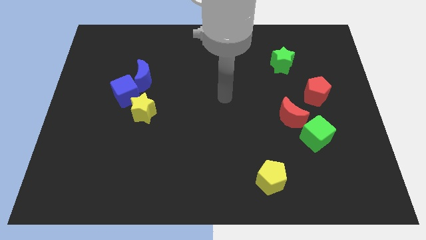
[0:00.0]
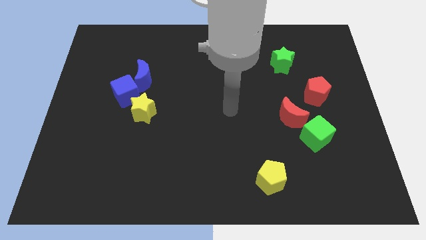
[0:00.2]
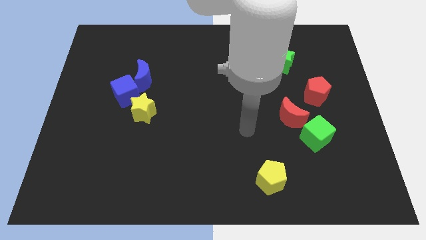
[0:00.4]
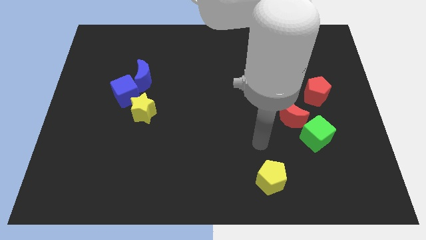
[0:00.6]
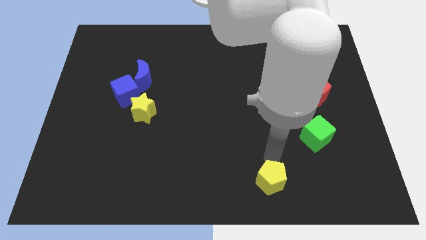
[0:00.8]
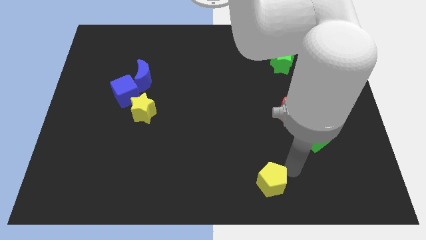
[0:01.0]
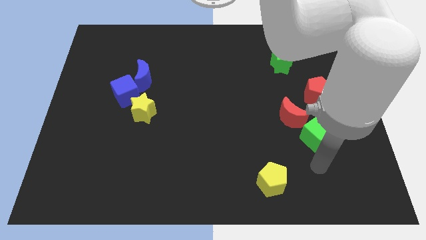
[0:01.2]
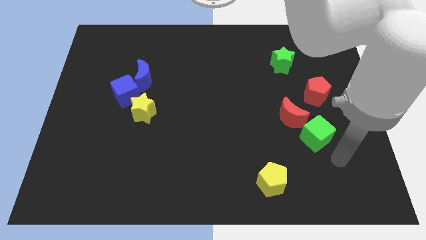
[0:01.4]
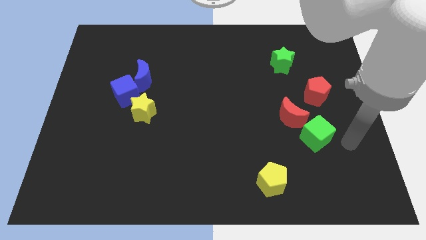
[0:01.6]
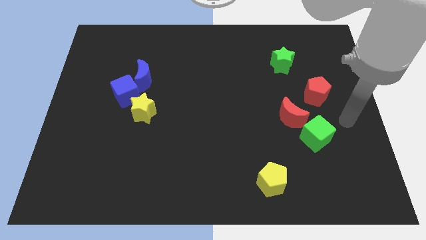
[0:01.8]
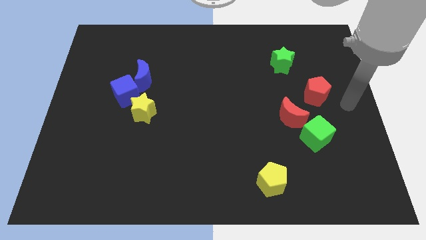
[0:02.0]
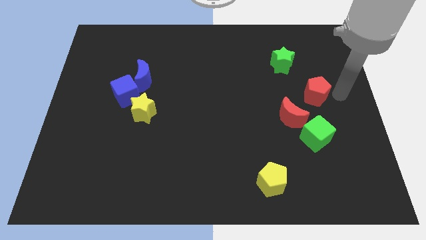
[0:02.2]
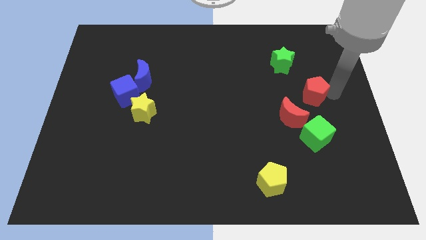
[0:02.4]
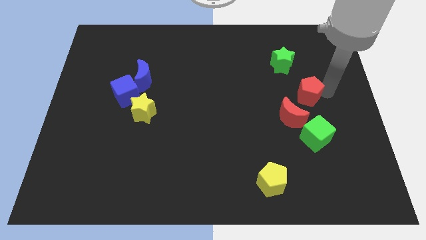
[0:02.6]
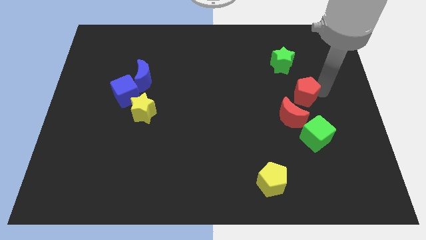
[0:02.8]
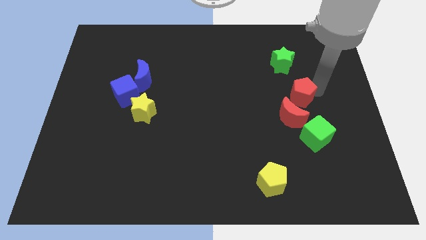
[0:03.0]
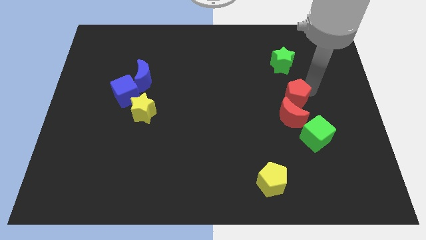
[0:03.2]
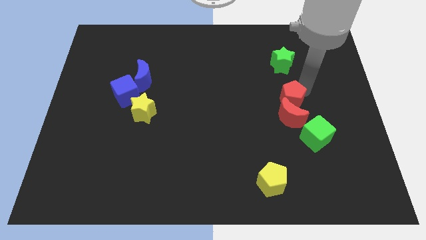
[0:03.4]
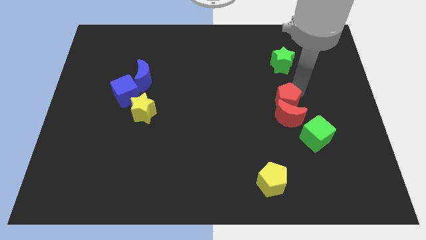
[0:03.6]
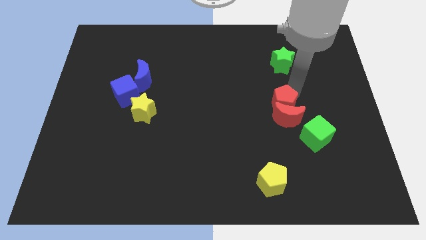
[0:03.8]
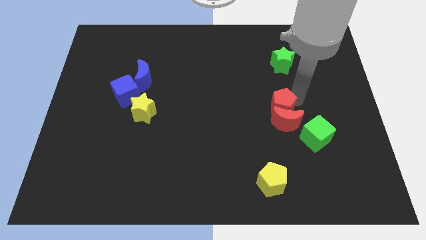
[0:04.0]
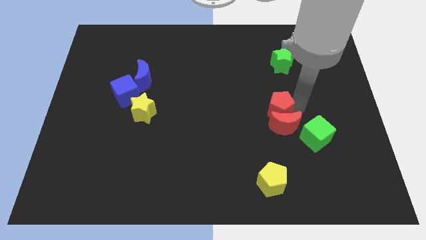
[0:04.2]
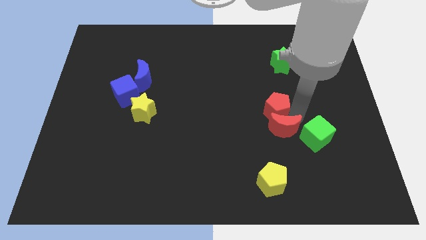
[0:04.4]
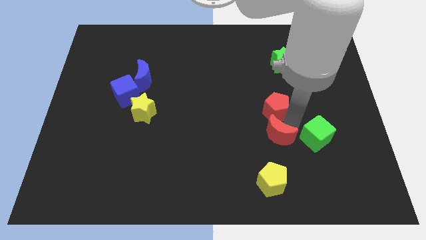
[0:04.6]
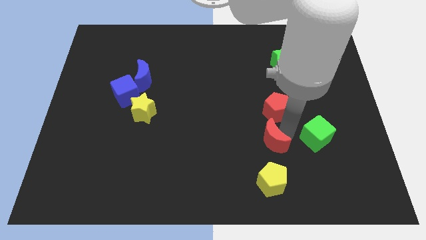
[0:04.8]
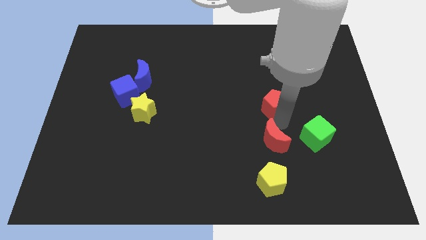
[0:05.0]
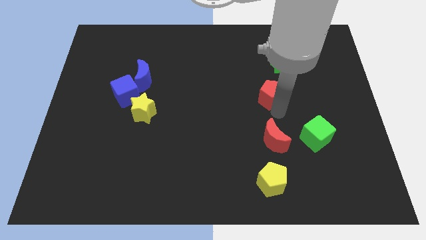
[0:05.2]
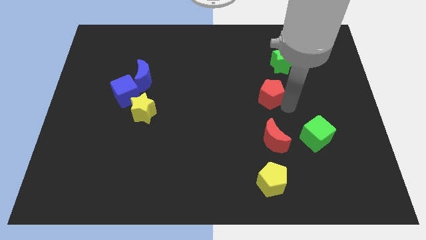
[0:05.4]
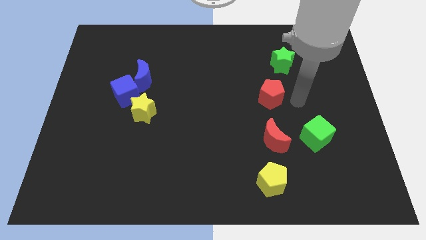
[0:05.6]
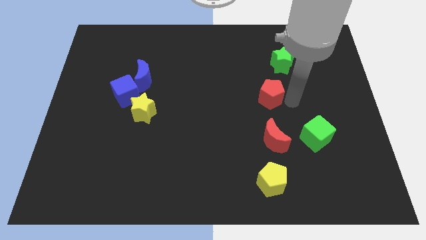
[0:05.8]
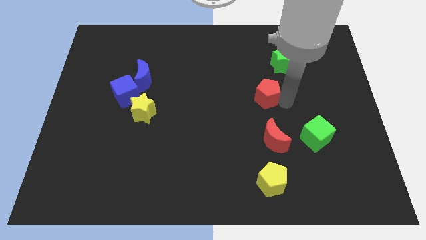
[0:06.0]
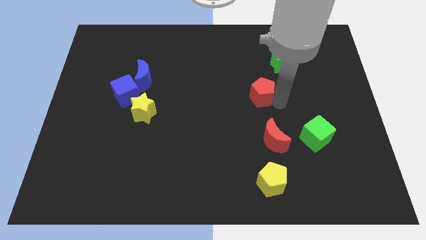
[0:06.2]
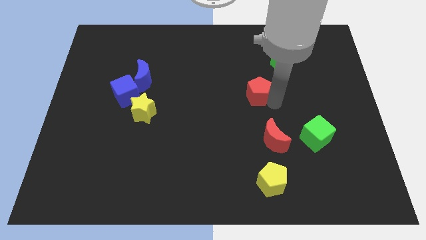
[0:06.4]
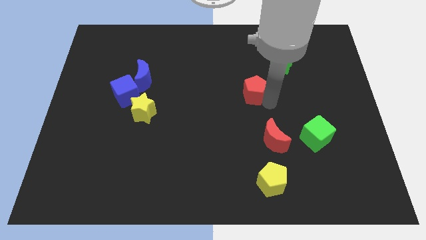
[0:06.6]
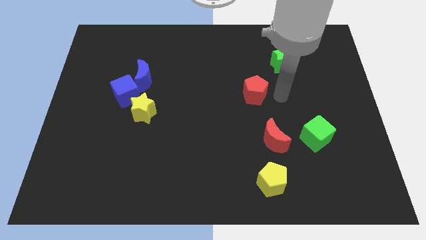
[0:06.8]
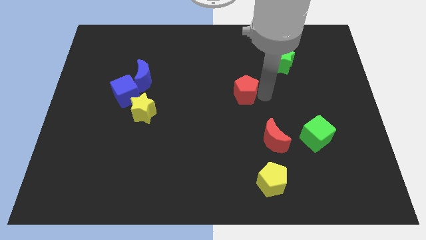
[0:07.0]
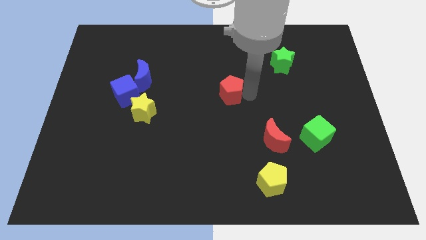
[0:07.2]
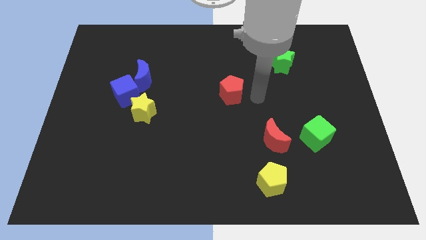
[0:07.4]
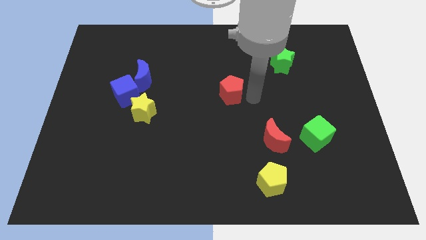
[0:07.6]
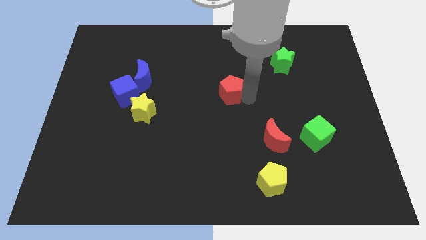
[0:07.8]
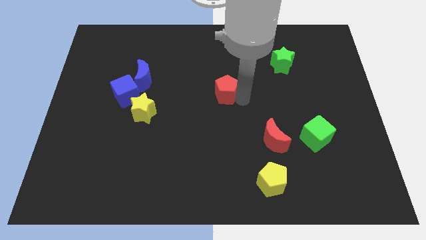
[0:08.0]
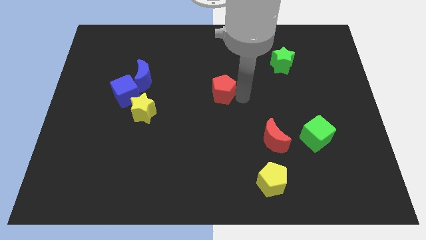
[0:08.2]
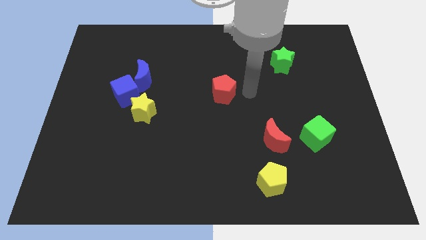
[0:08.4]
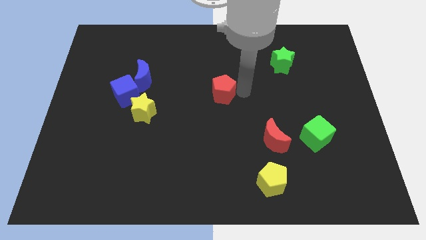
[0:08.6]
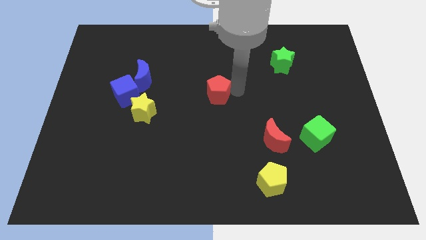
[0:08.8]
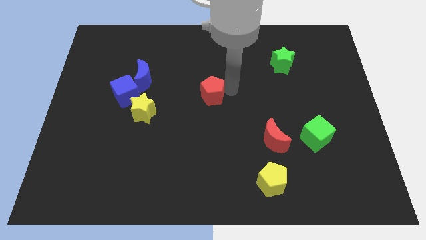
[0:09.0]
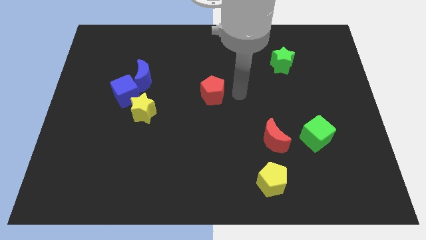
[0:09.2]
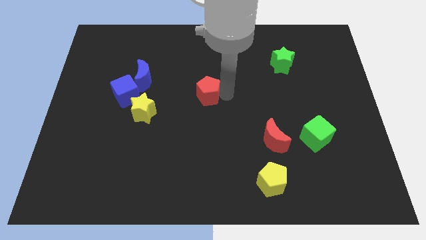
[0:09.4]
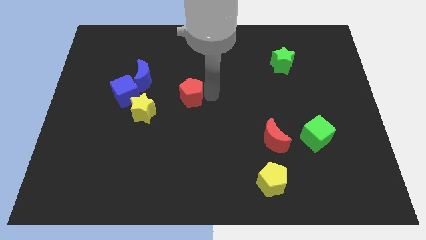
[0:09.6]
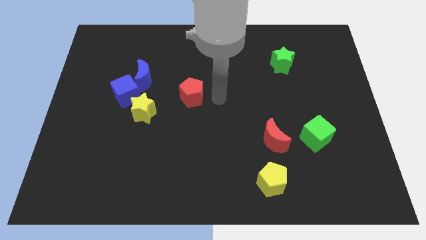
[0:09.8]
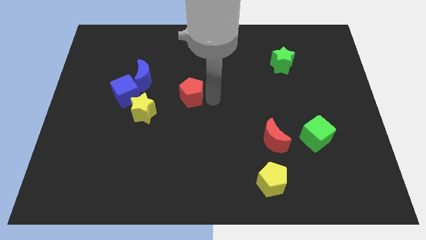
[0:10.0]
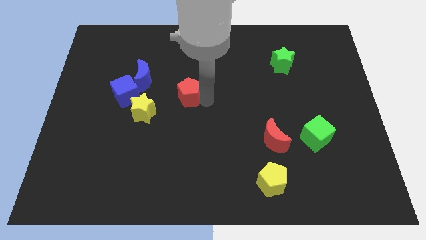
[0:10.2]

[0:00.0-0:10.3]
move the red pentagon to the top right of the yellow star

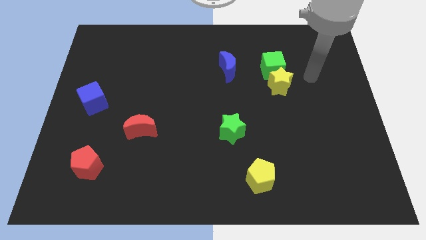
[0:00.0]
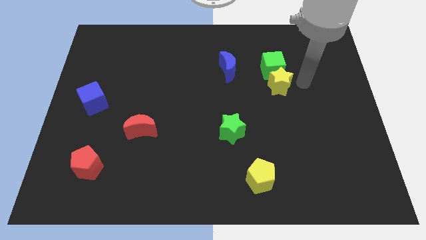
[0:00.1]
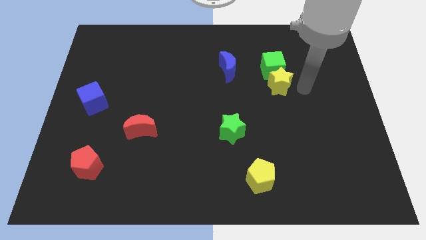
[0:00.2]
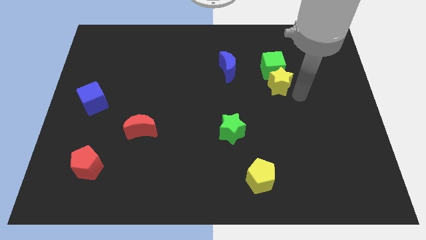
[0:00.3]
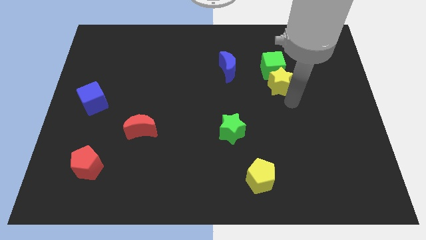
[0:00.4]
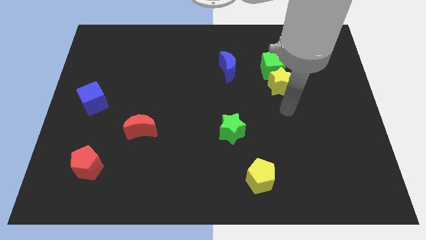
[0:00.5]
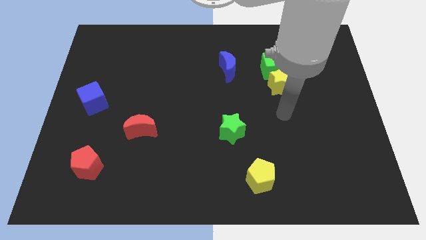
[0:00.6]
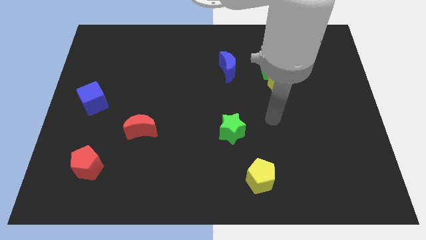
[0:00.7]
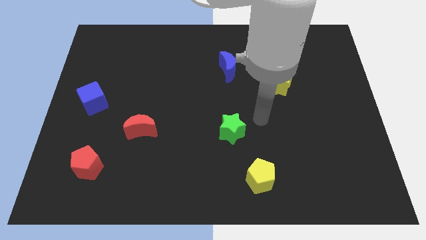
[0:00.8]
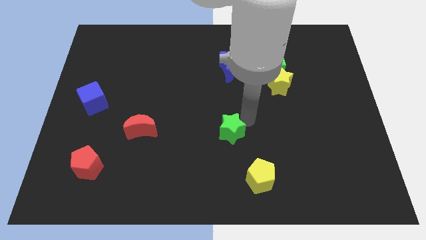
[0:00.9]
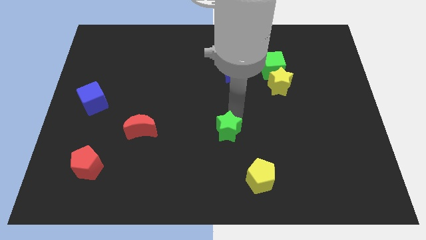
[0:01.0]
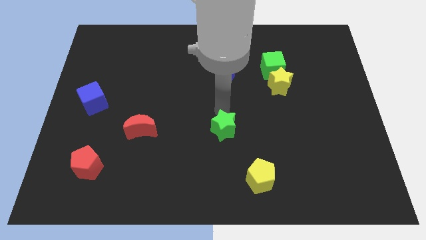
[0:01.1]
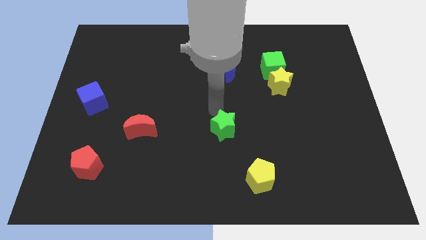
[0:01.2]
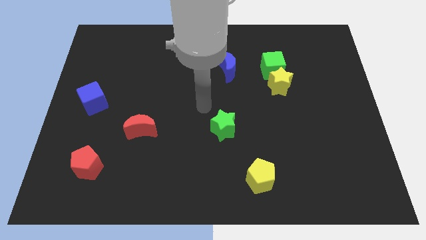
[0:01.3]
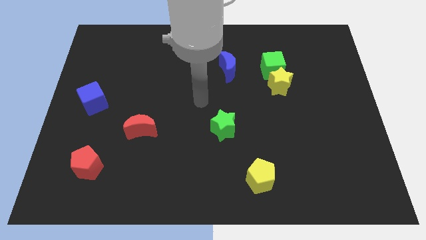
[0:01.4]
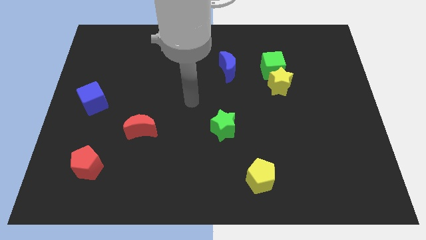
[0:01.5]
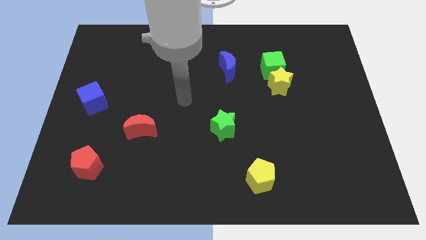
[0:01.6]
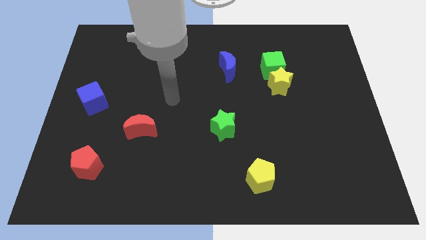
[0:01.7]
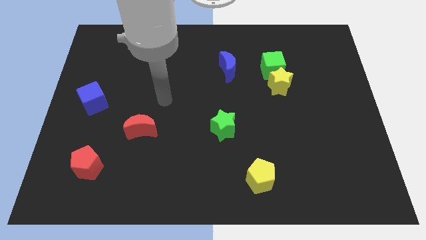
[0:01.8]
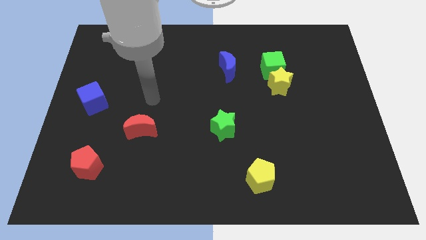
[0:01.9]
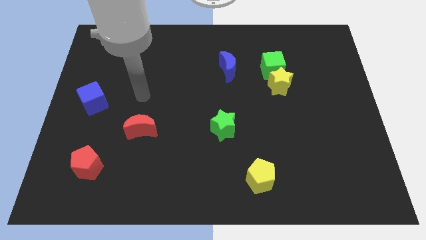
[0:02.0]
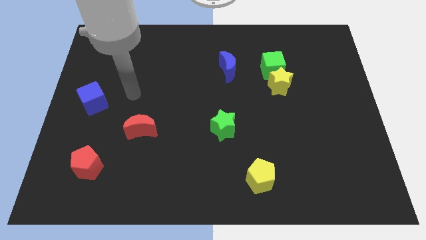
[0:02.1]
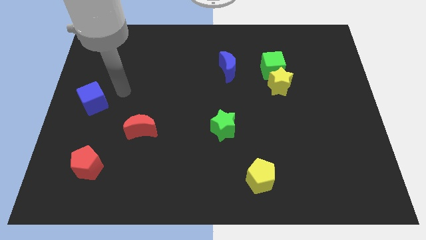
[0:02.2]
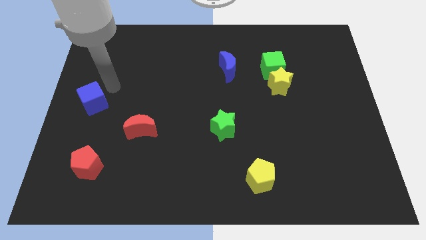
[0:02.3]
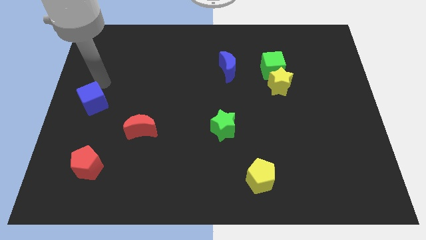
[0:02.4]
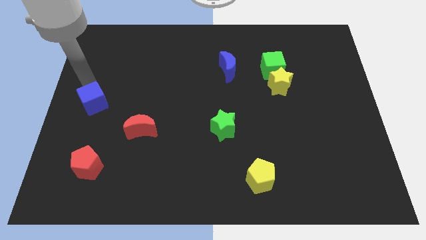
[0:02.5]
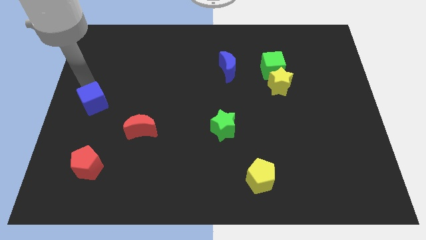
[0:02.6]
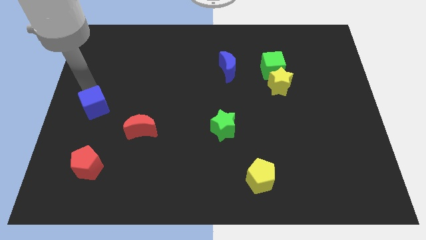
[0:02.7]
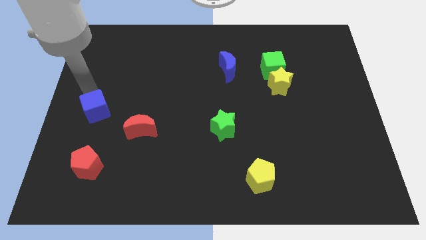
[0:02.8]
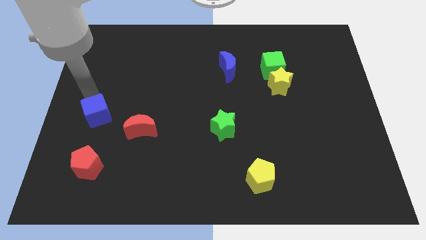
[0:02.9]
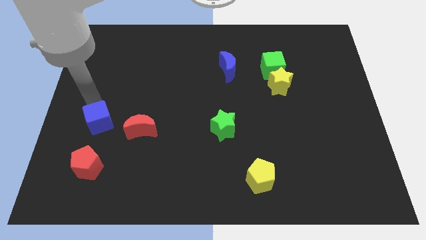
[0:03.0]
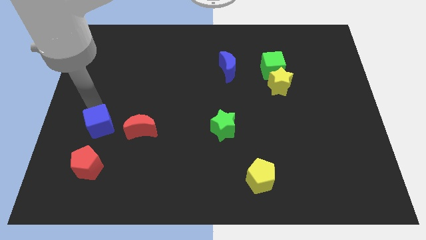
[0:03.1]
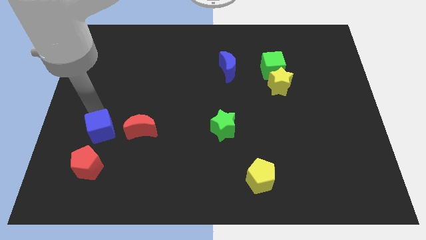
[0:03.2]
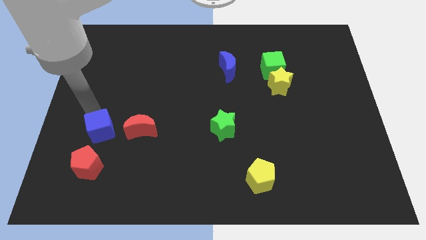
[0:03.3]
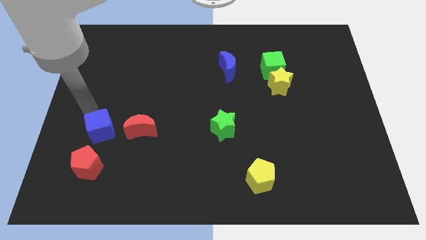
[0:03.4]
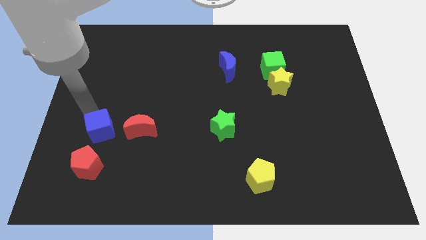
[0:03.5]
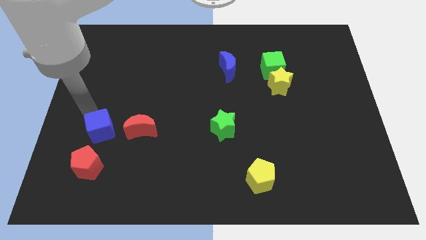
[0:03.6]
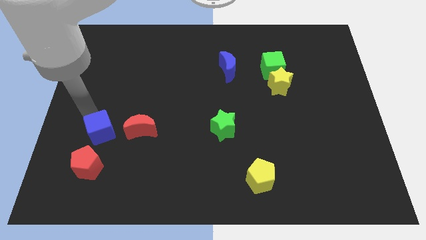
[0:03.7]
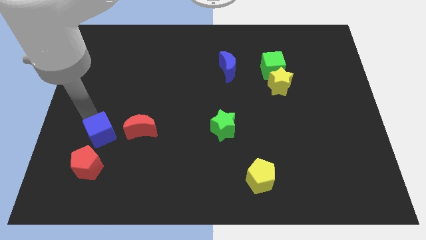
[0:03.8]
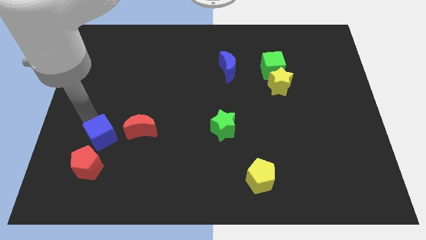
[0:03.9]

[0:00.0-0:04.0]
push the blue cube to the bottom left side of the red moon
